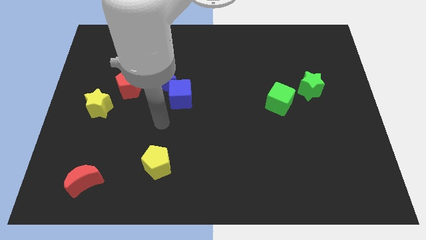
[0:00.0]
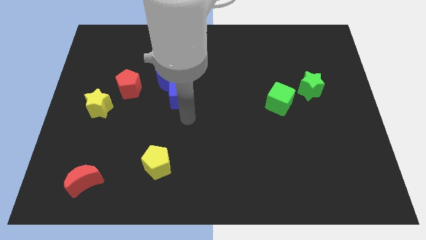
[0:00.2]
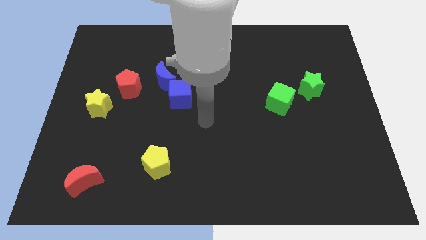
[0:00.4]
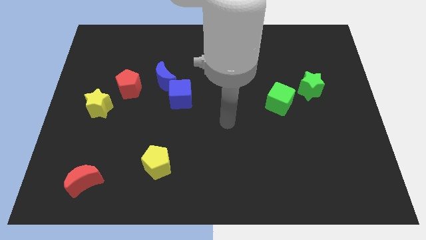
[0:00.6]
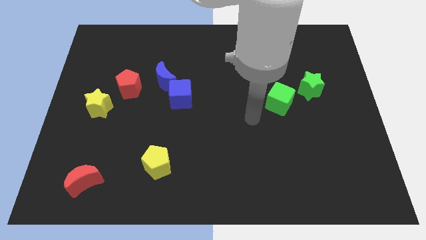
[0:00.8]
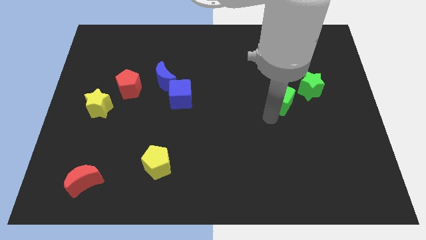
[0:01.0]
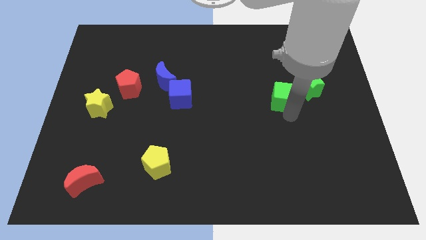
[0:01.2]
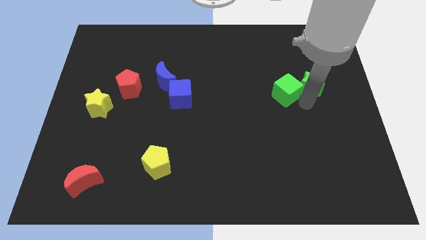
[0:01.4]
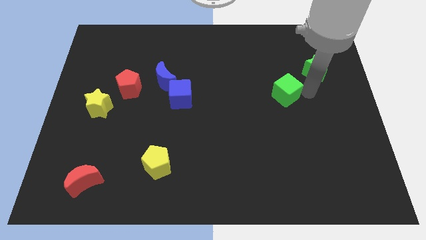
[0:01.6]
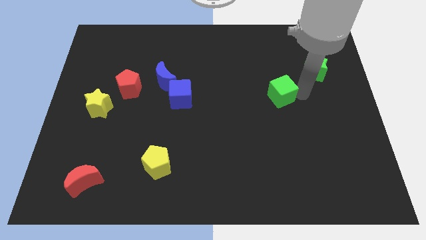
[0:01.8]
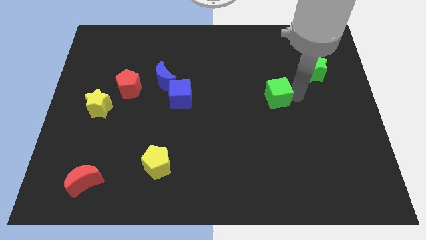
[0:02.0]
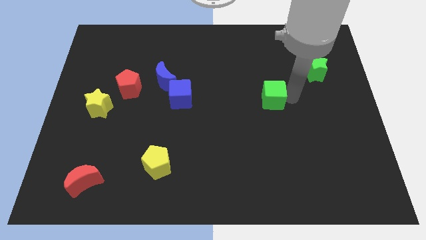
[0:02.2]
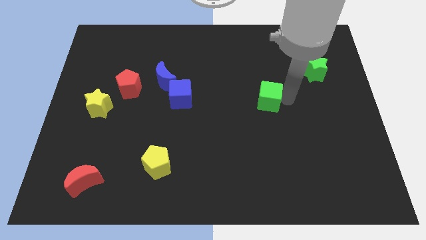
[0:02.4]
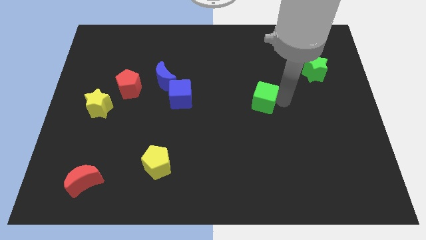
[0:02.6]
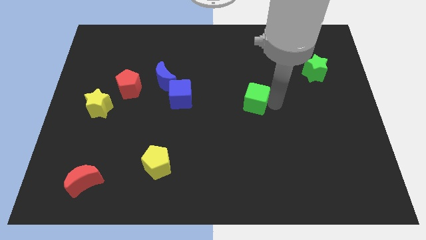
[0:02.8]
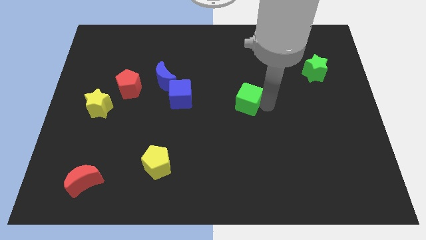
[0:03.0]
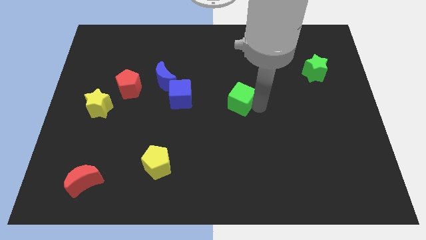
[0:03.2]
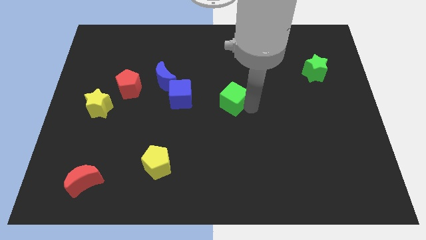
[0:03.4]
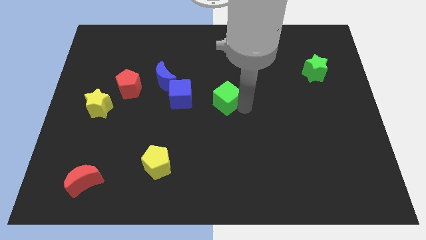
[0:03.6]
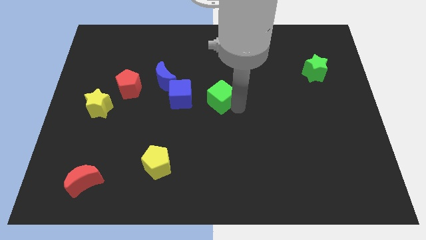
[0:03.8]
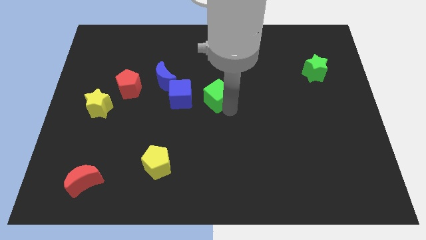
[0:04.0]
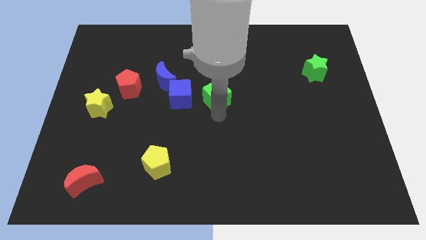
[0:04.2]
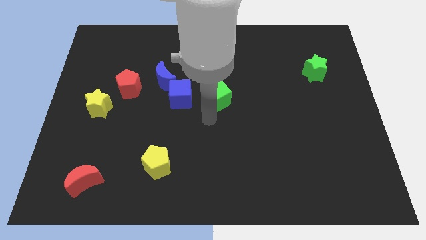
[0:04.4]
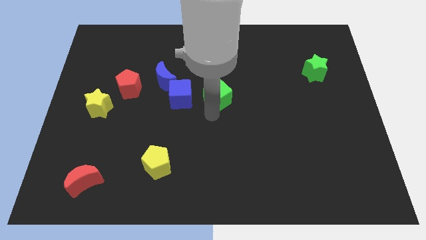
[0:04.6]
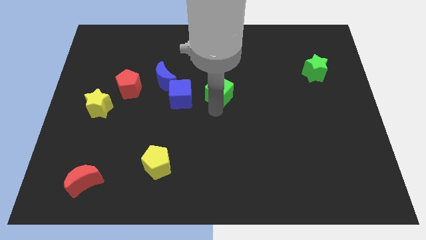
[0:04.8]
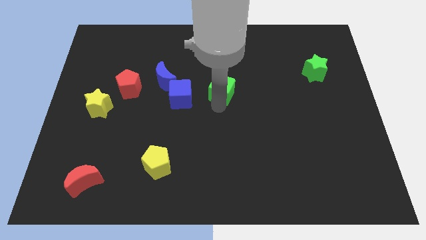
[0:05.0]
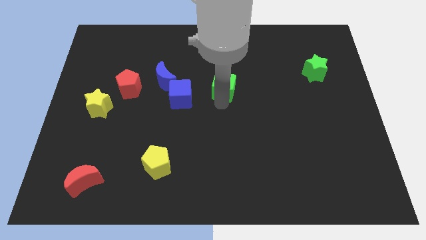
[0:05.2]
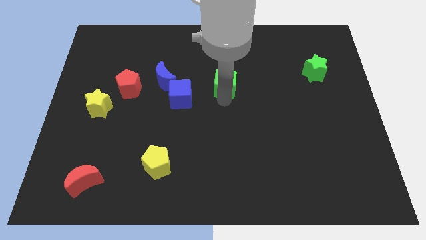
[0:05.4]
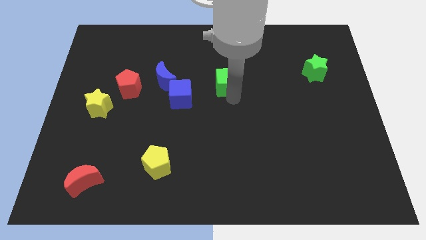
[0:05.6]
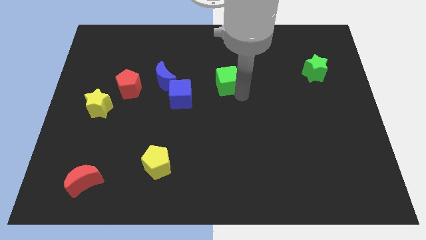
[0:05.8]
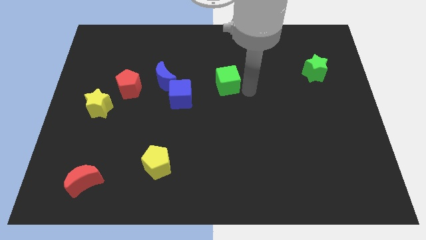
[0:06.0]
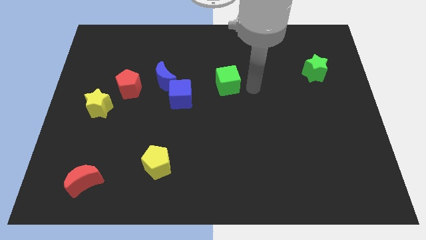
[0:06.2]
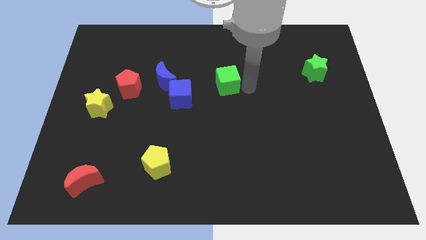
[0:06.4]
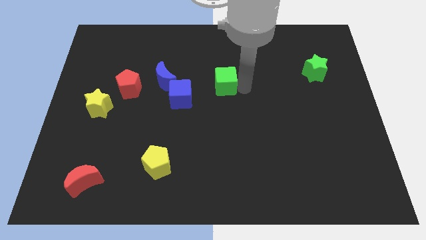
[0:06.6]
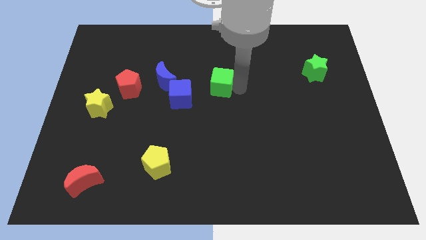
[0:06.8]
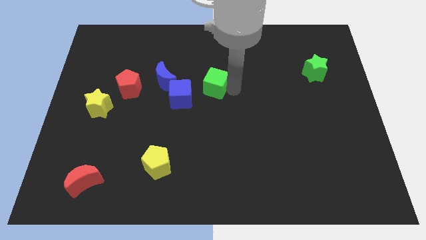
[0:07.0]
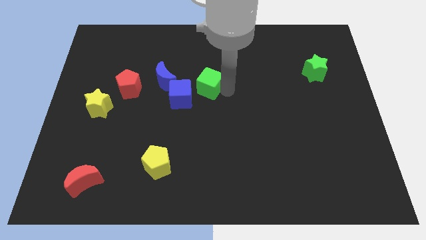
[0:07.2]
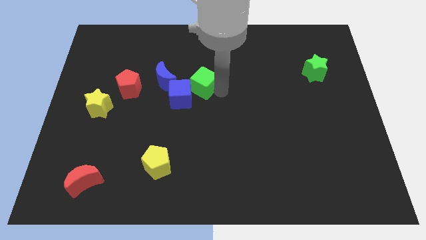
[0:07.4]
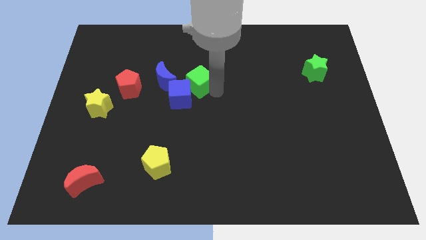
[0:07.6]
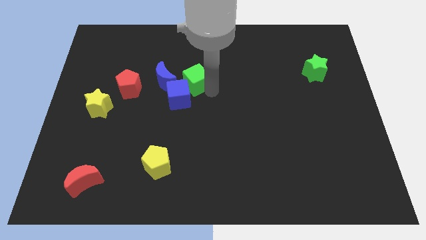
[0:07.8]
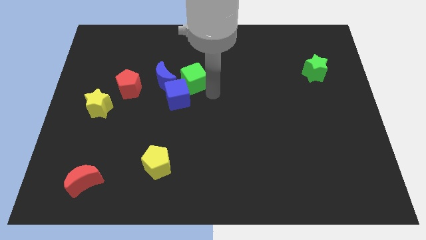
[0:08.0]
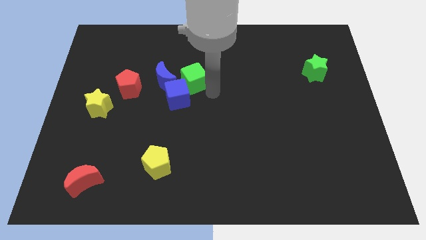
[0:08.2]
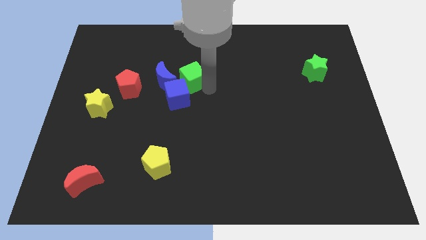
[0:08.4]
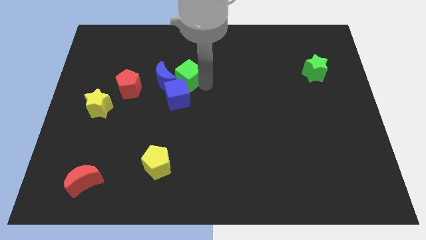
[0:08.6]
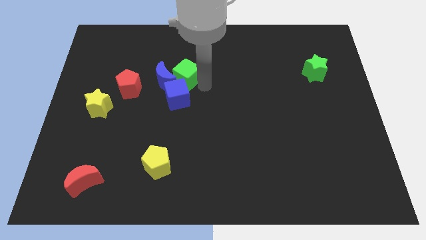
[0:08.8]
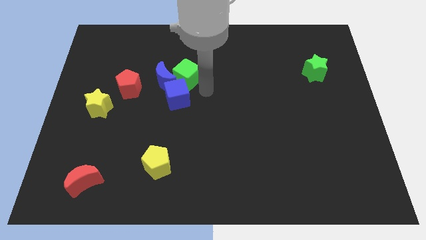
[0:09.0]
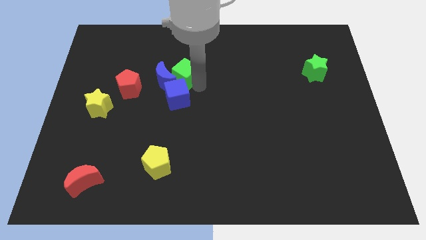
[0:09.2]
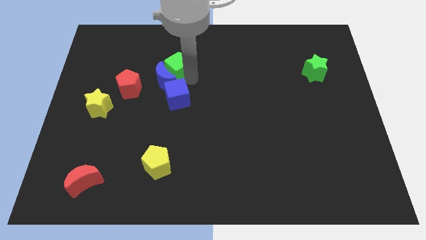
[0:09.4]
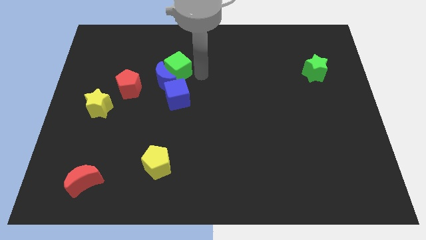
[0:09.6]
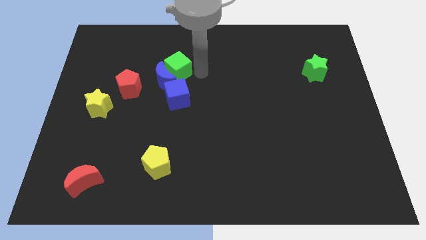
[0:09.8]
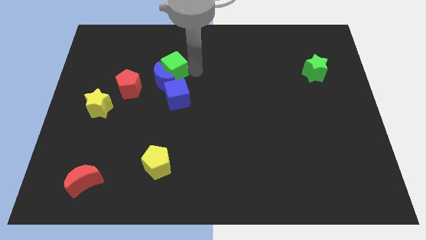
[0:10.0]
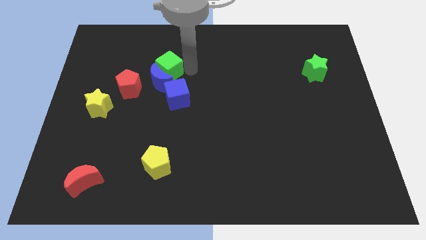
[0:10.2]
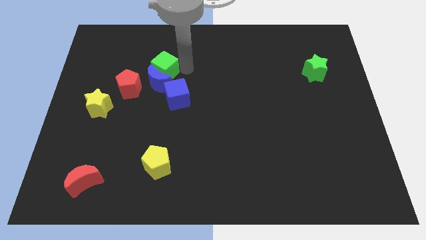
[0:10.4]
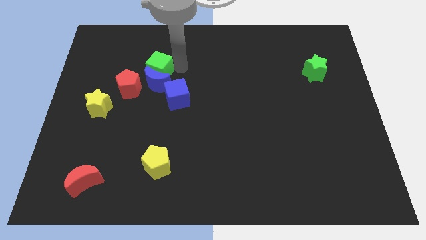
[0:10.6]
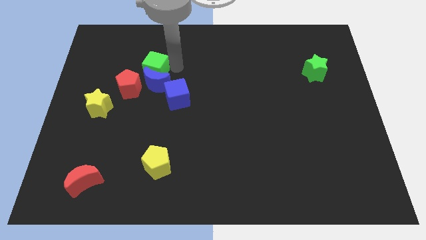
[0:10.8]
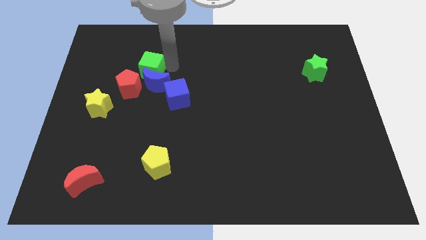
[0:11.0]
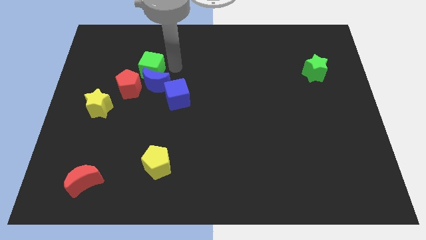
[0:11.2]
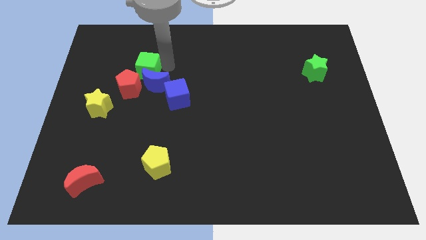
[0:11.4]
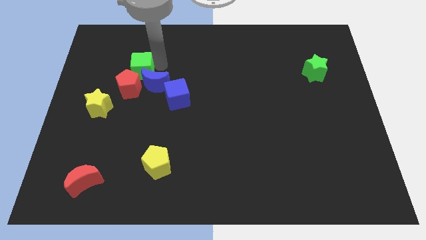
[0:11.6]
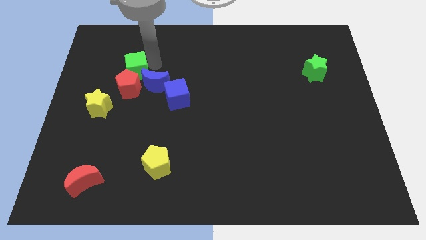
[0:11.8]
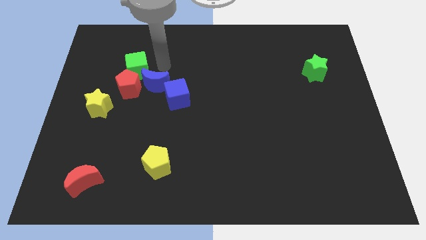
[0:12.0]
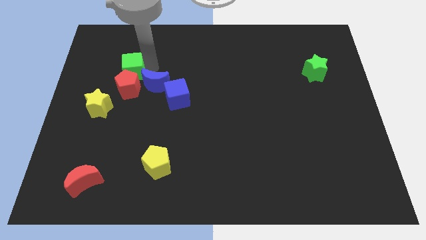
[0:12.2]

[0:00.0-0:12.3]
put the green cube to the top left of the red pentagon
